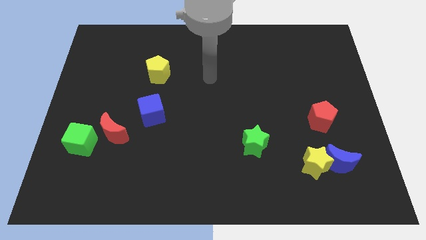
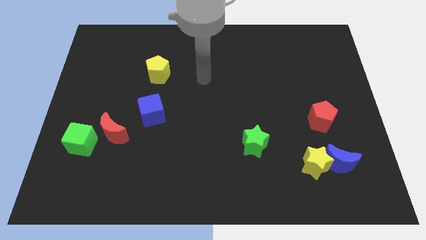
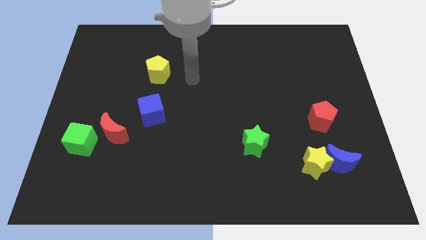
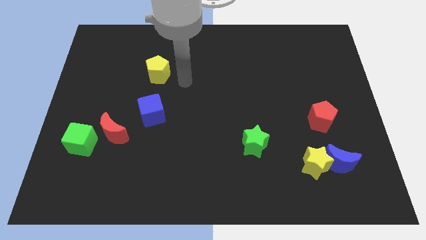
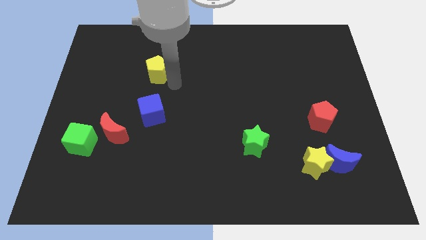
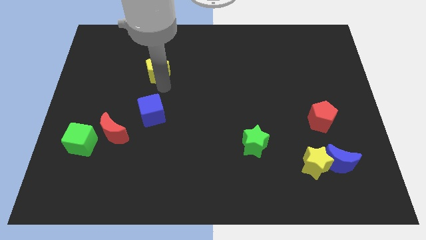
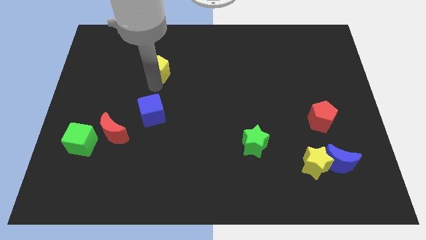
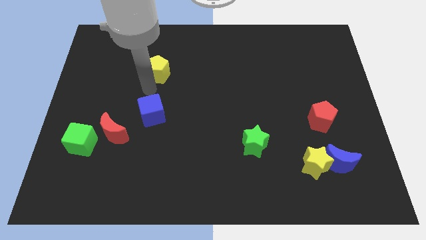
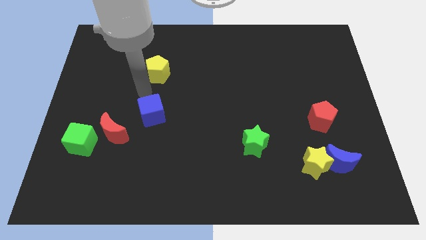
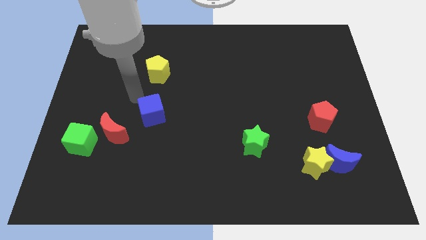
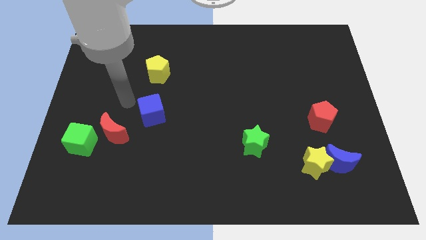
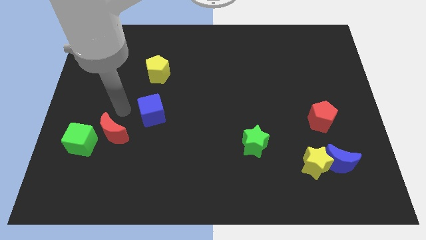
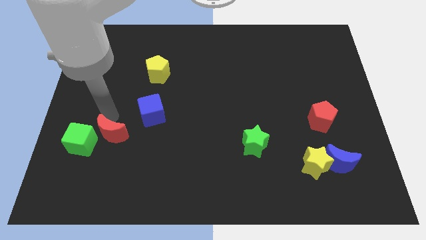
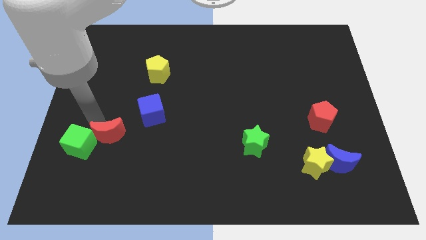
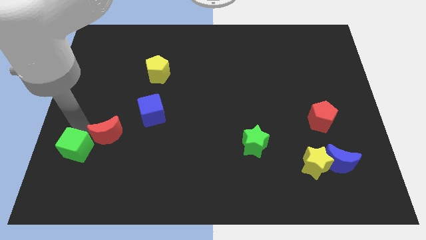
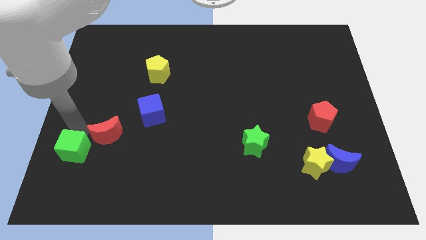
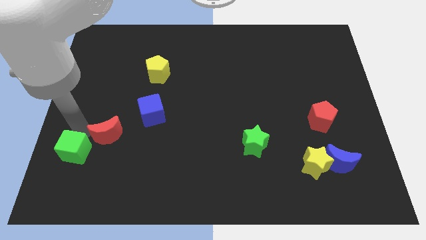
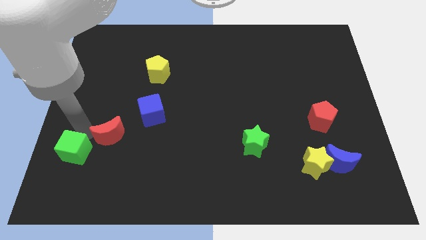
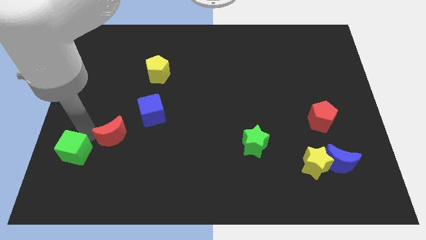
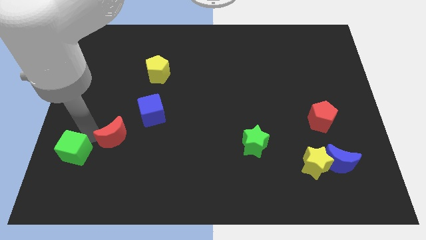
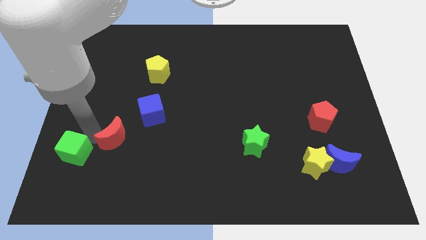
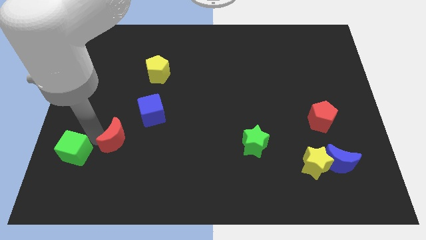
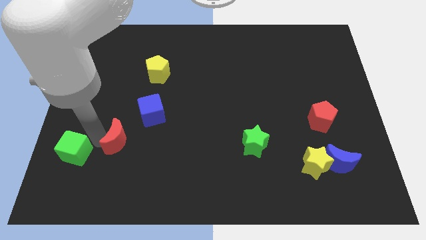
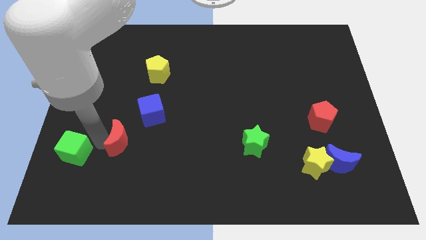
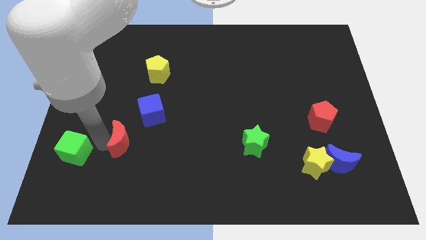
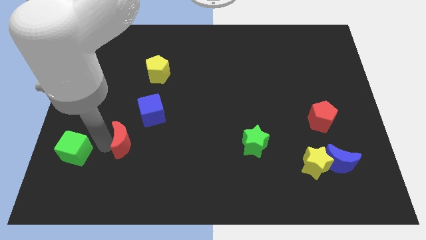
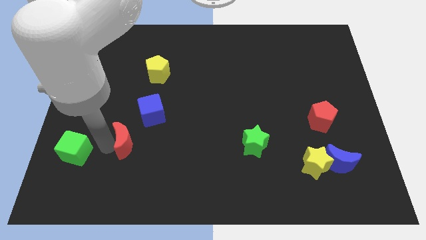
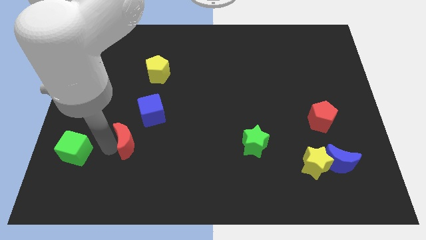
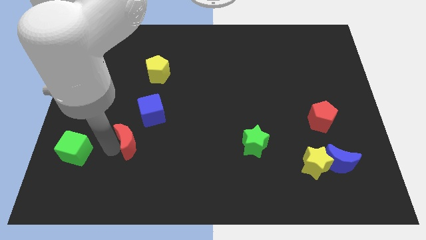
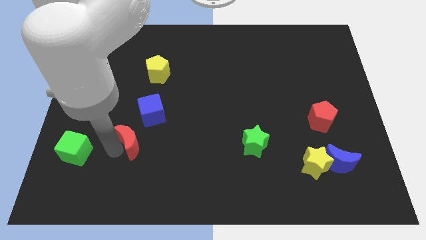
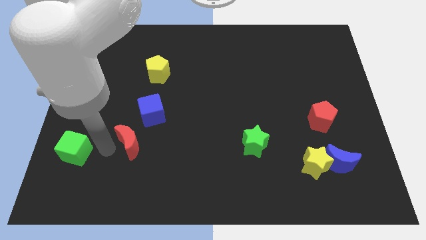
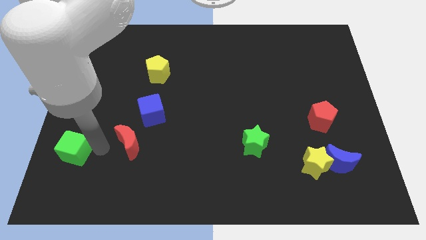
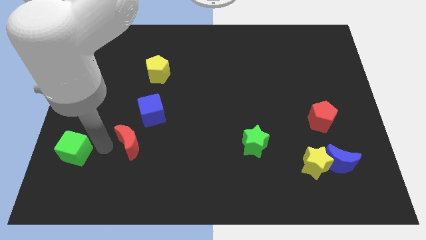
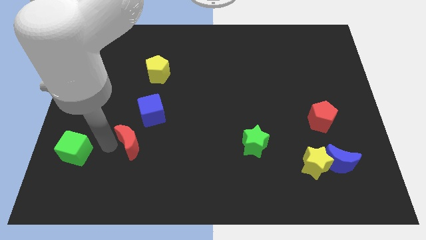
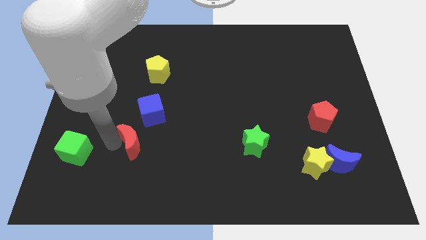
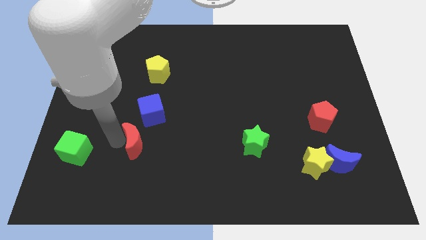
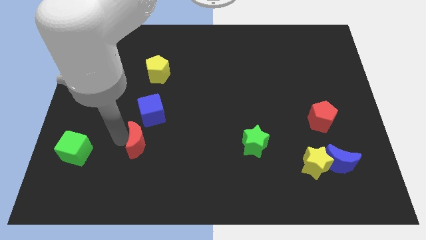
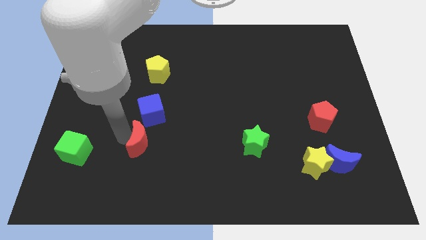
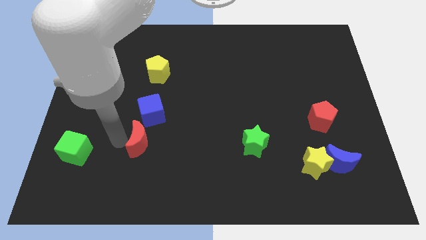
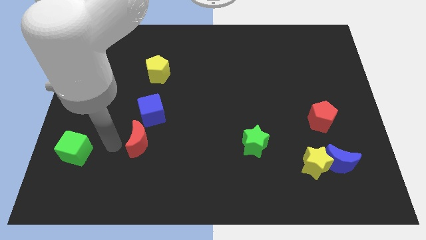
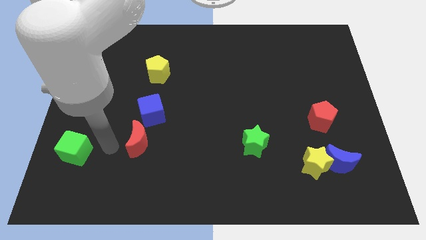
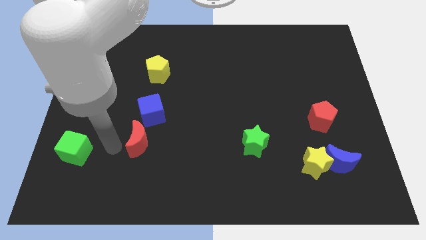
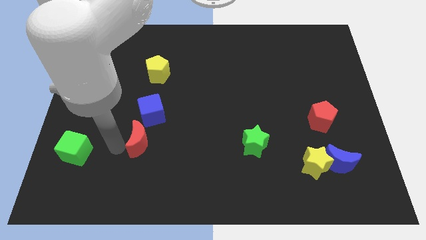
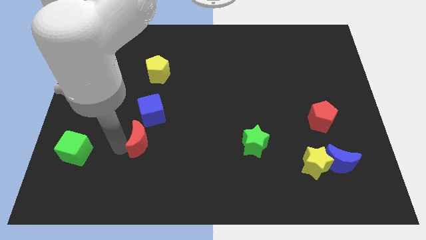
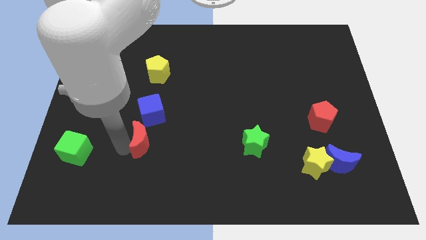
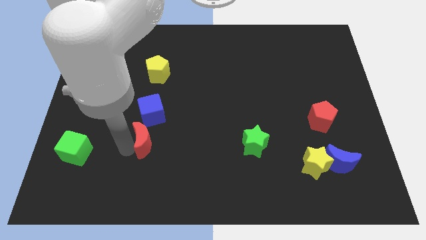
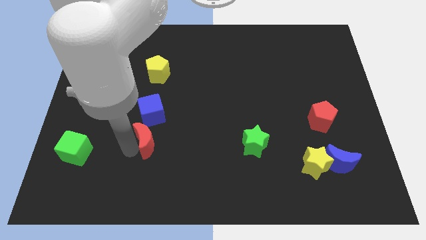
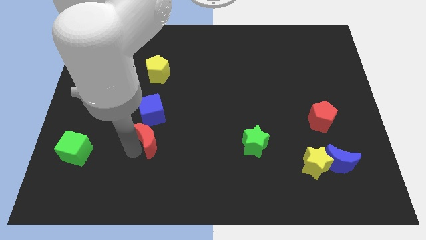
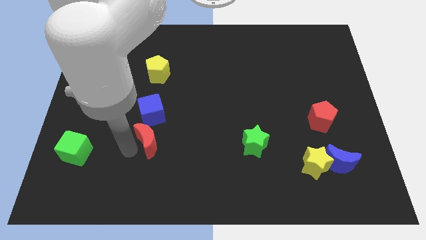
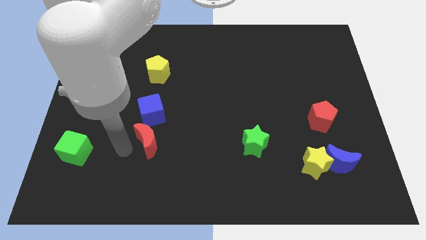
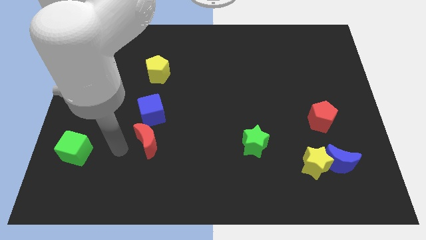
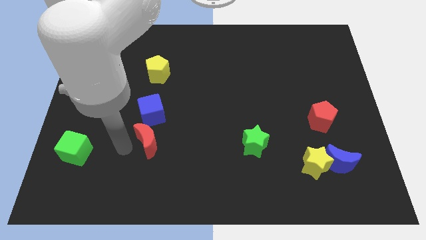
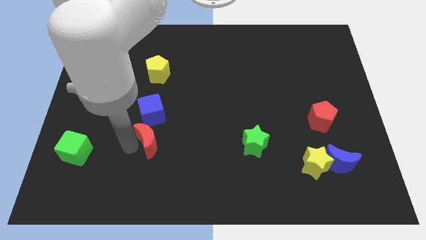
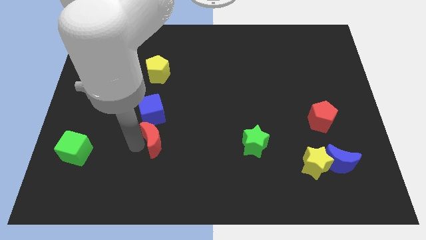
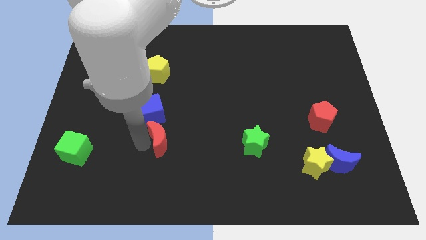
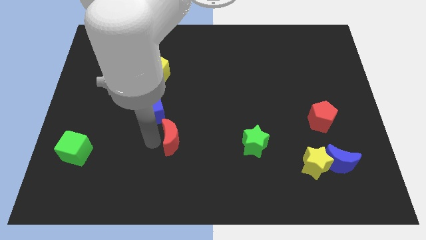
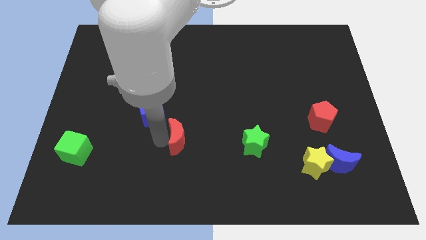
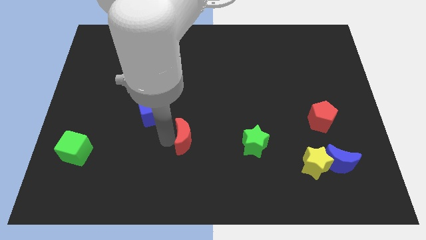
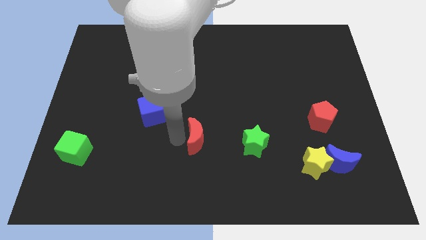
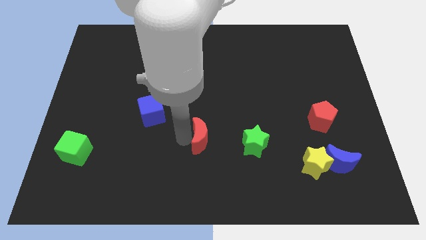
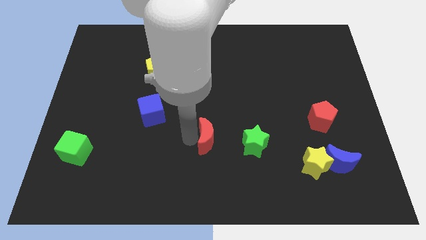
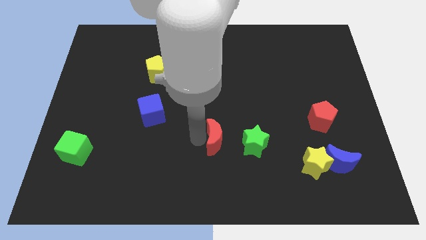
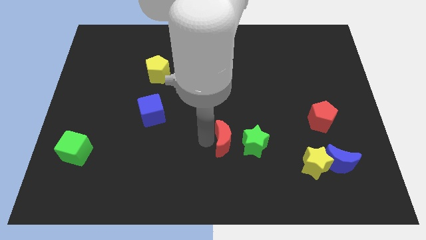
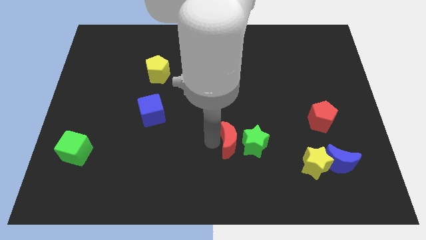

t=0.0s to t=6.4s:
push the red moon to the green star
